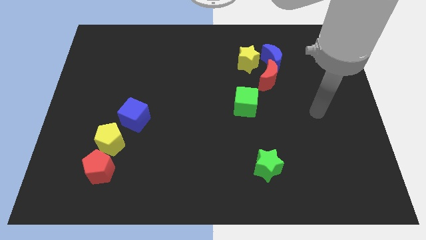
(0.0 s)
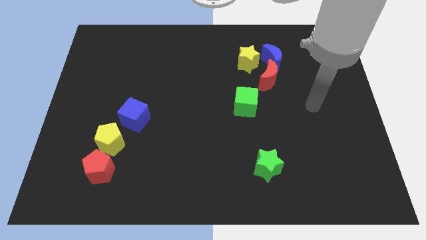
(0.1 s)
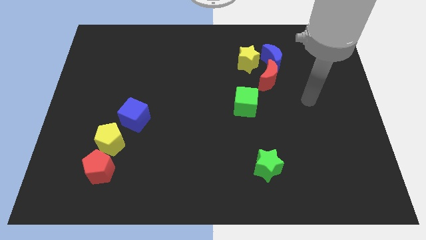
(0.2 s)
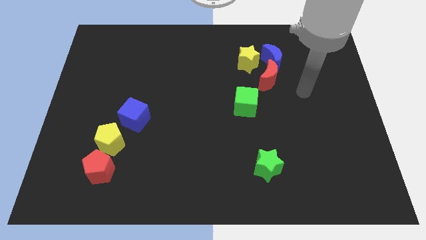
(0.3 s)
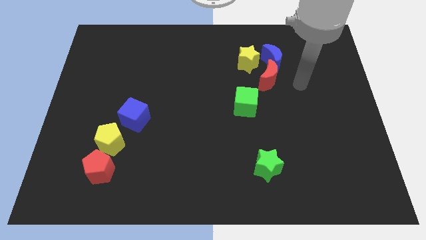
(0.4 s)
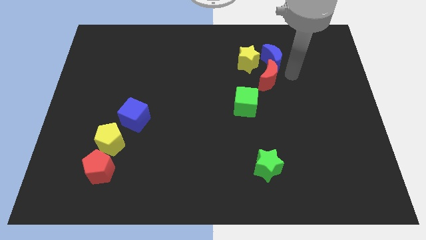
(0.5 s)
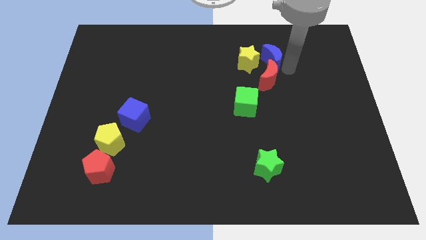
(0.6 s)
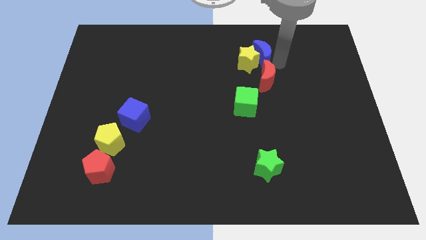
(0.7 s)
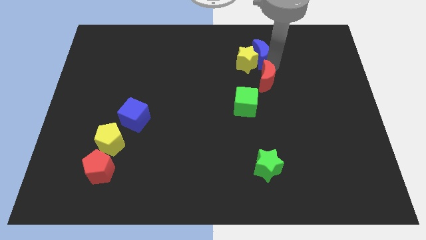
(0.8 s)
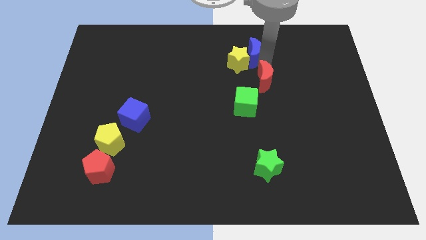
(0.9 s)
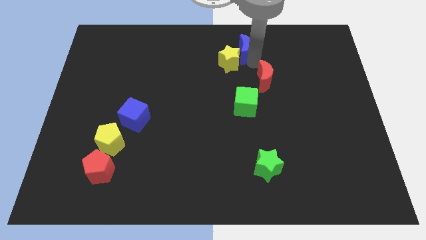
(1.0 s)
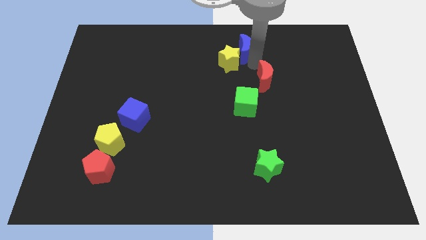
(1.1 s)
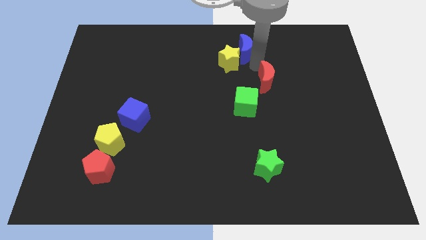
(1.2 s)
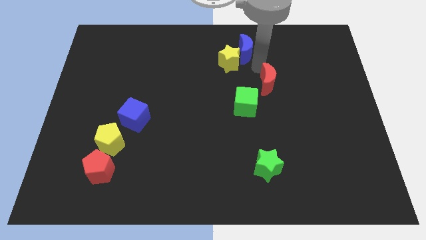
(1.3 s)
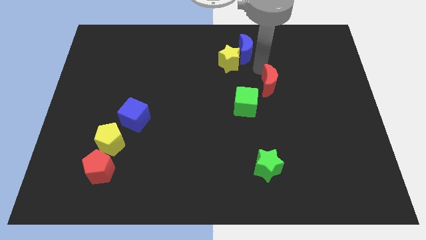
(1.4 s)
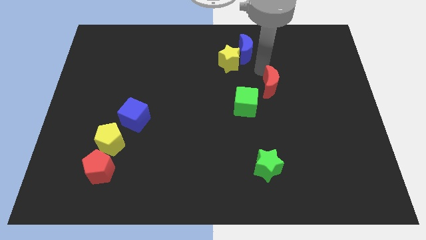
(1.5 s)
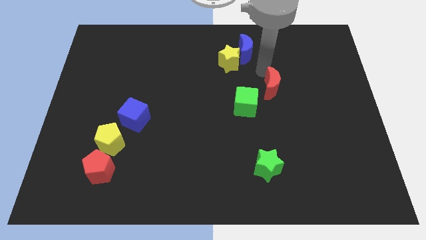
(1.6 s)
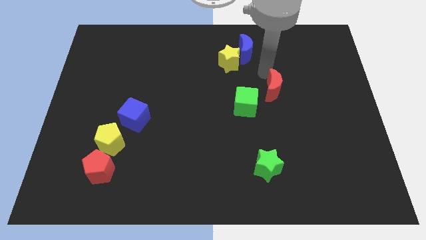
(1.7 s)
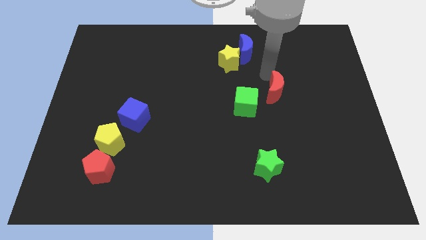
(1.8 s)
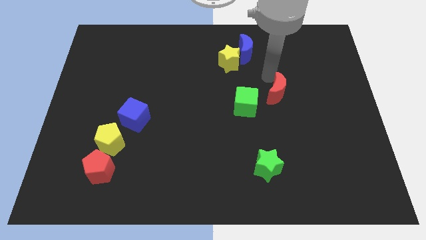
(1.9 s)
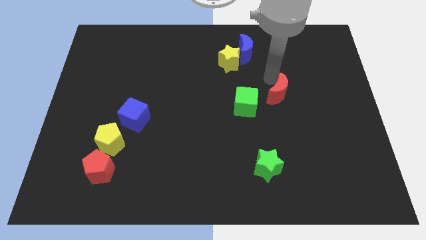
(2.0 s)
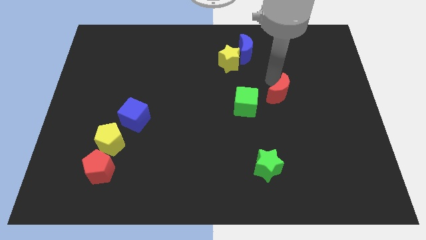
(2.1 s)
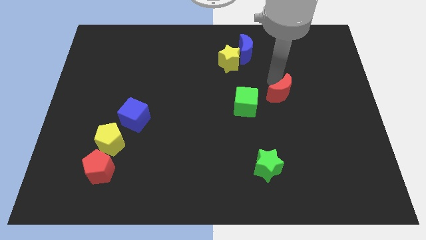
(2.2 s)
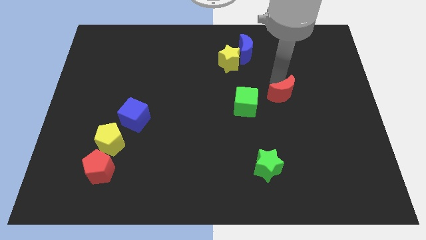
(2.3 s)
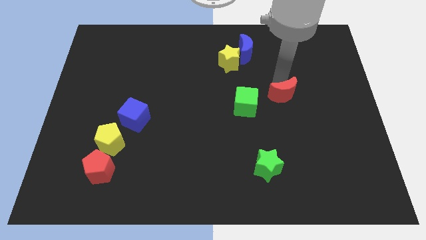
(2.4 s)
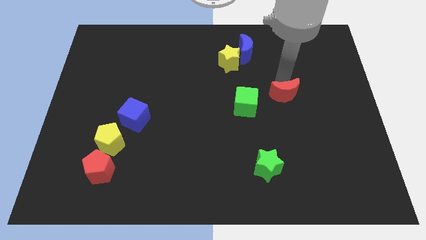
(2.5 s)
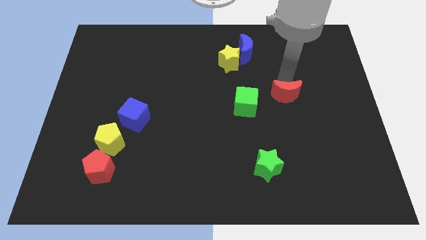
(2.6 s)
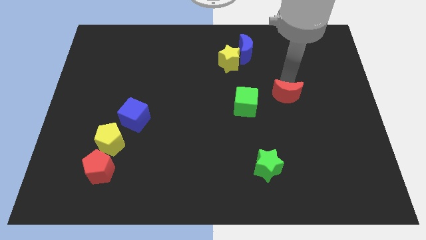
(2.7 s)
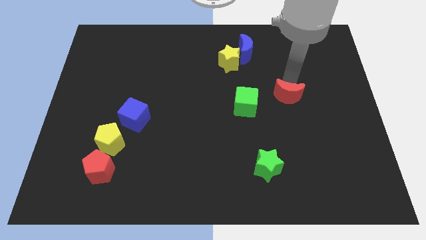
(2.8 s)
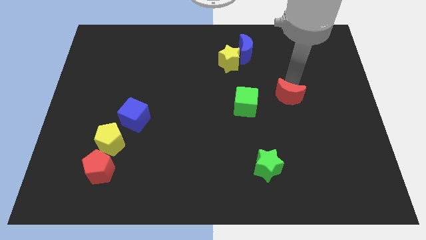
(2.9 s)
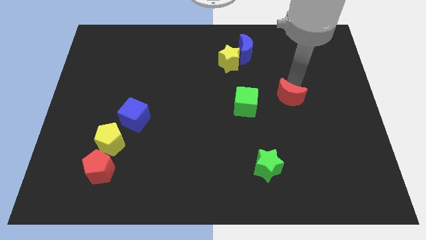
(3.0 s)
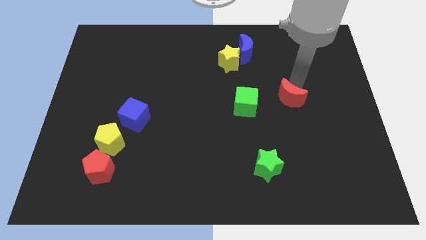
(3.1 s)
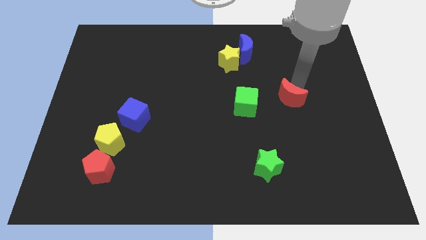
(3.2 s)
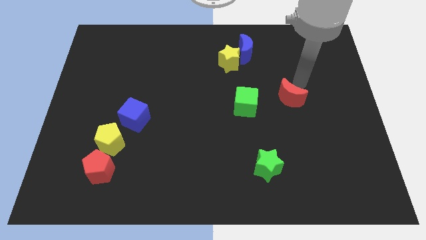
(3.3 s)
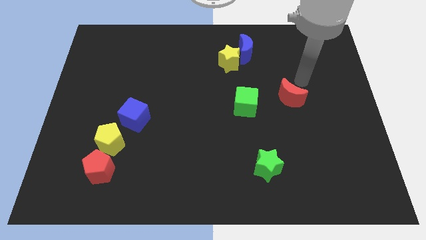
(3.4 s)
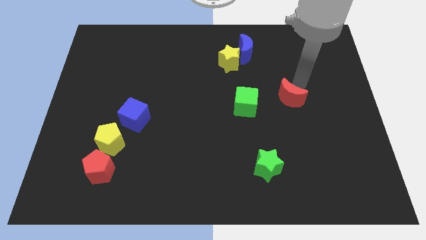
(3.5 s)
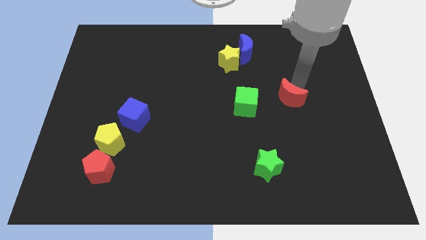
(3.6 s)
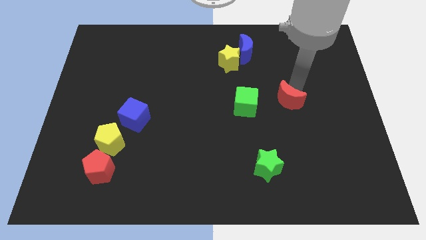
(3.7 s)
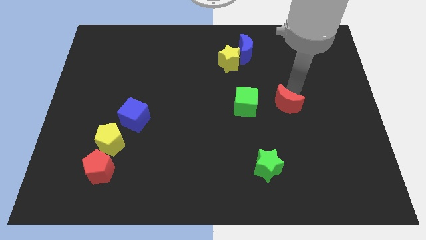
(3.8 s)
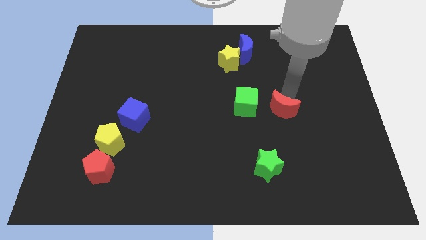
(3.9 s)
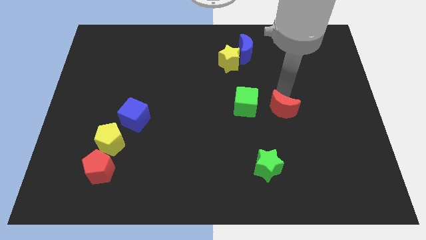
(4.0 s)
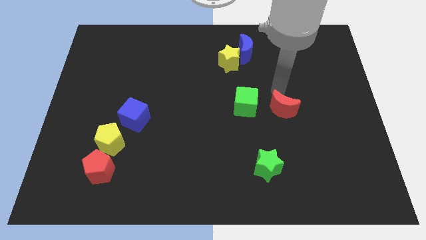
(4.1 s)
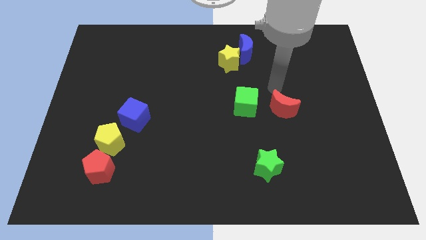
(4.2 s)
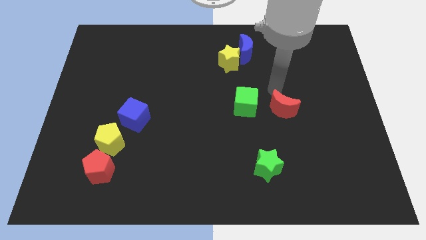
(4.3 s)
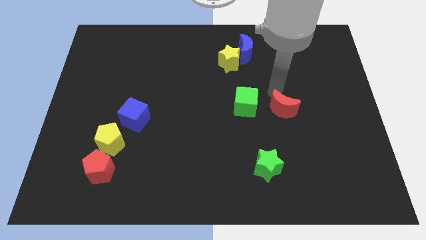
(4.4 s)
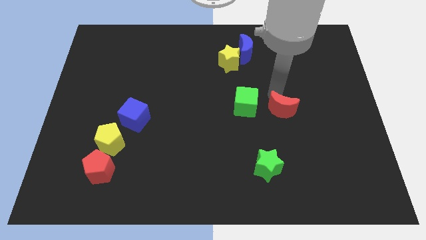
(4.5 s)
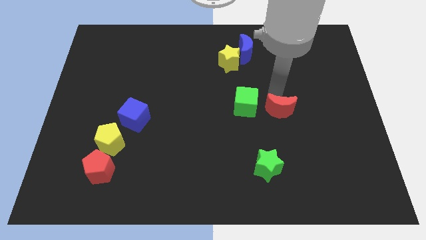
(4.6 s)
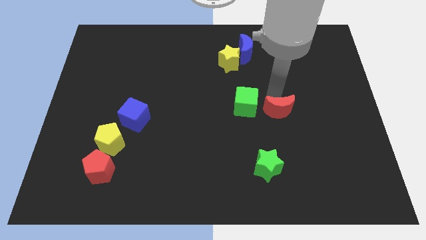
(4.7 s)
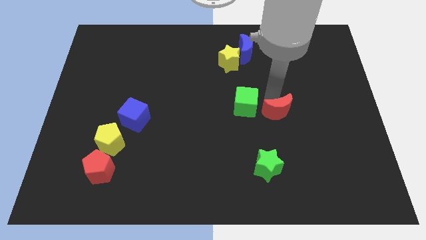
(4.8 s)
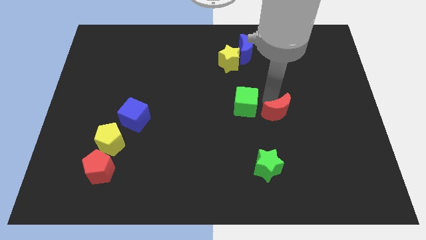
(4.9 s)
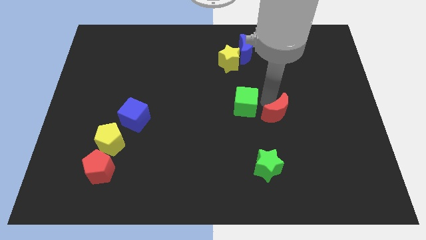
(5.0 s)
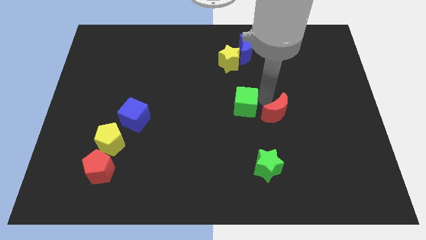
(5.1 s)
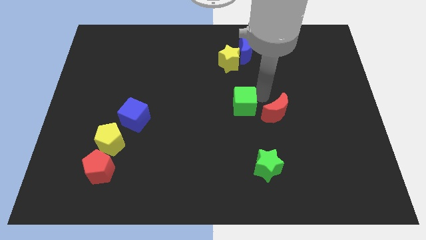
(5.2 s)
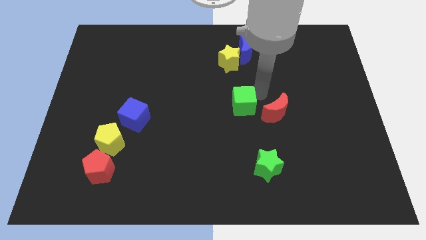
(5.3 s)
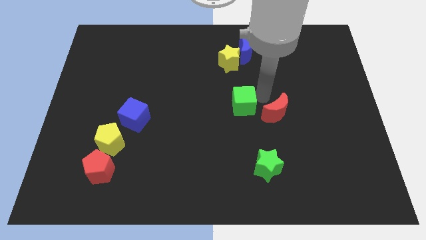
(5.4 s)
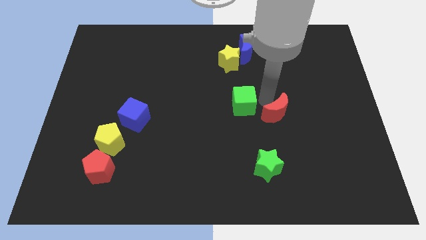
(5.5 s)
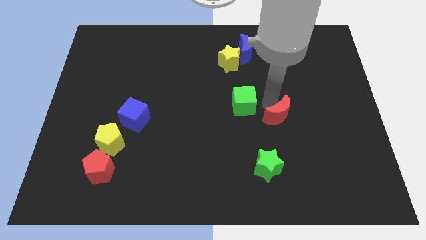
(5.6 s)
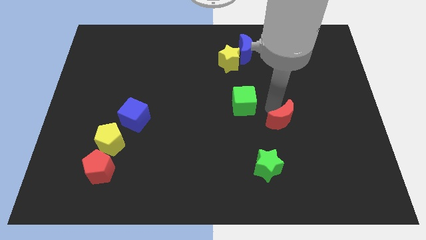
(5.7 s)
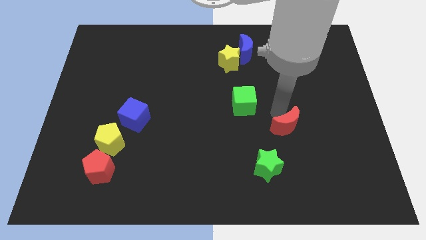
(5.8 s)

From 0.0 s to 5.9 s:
move the red moon diagonally up and to the right of the green star

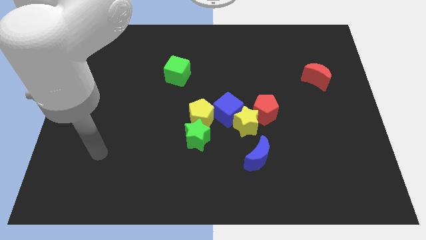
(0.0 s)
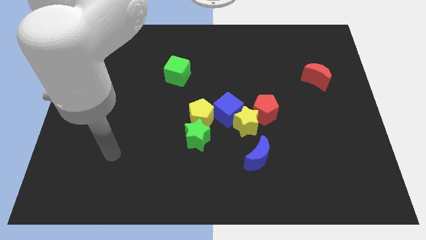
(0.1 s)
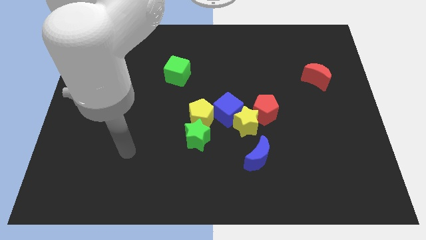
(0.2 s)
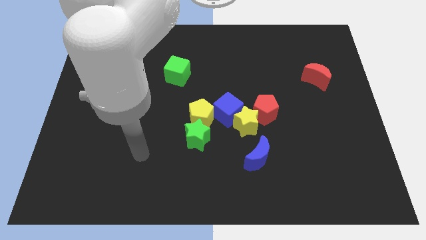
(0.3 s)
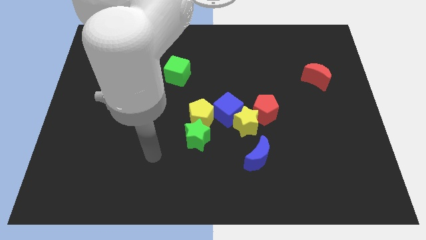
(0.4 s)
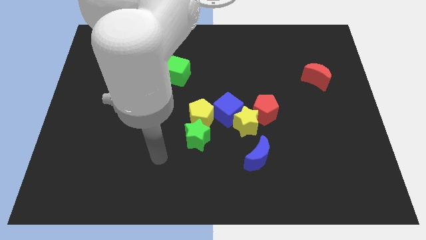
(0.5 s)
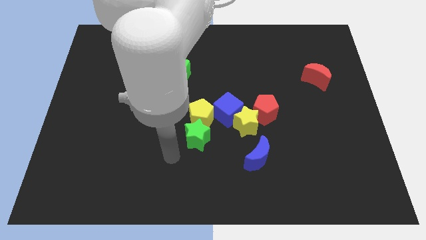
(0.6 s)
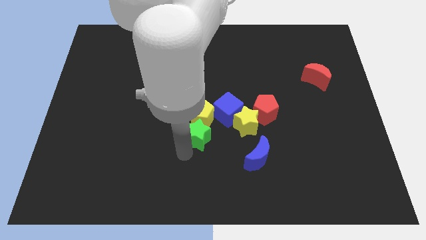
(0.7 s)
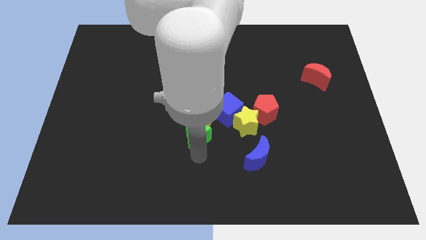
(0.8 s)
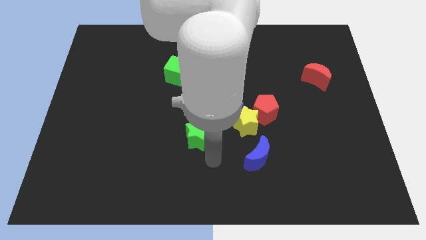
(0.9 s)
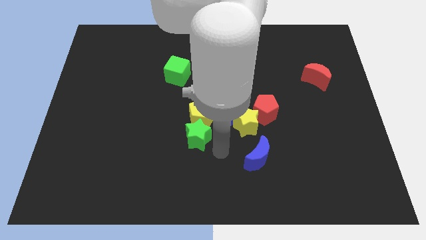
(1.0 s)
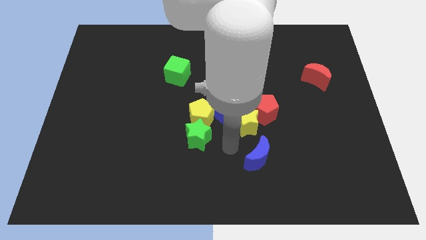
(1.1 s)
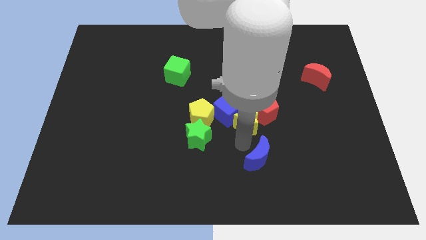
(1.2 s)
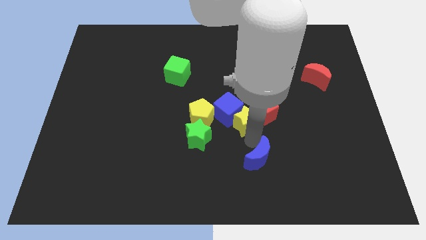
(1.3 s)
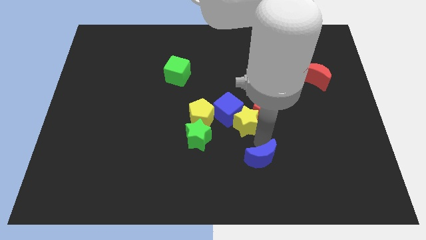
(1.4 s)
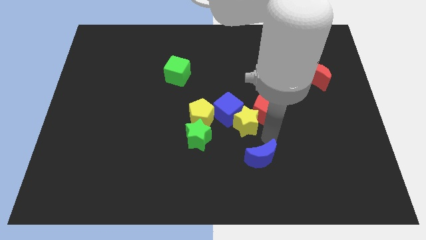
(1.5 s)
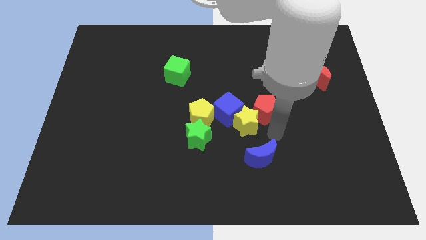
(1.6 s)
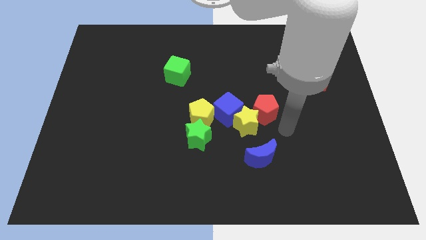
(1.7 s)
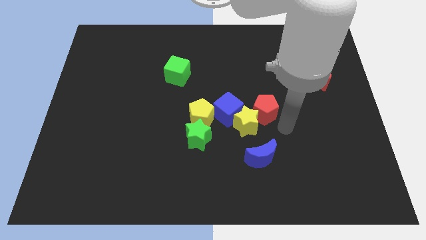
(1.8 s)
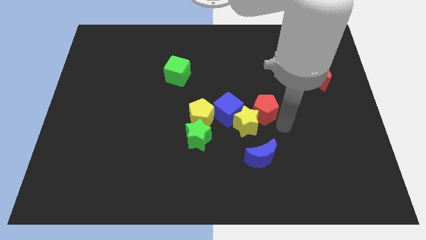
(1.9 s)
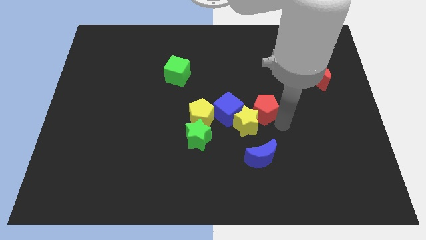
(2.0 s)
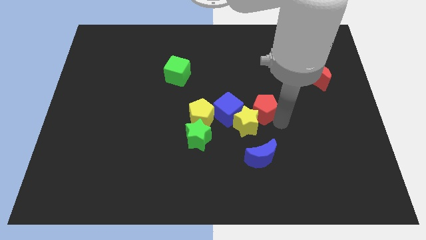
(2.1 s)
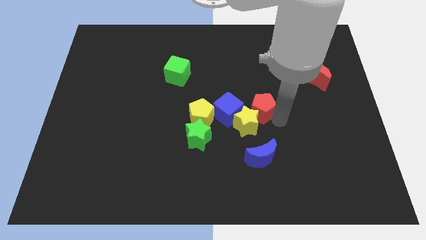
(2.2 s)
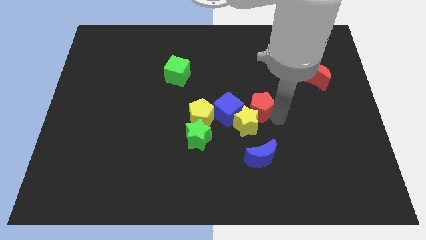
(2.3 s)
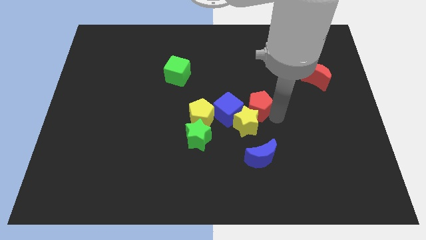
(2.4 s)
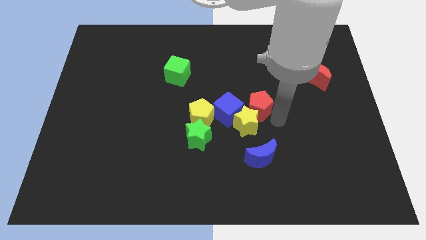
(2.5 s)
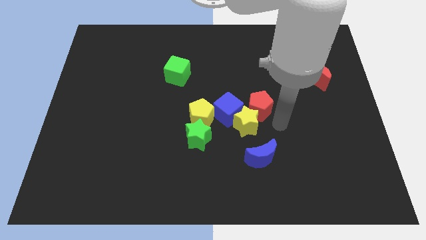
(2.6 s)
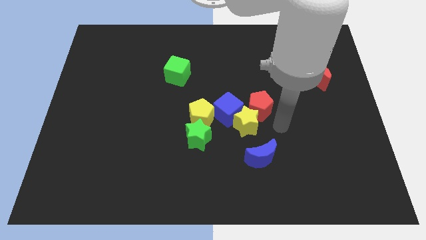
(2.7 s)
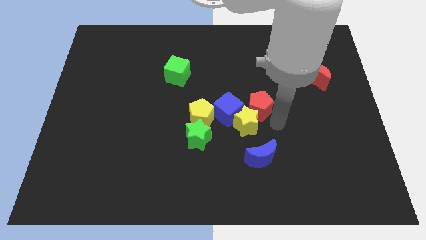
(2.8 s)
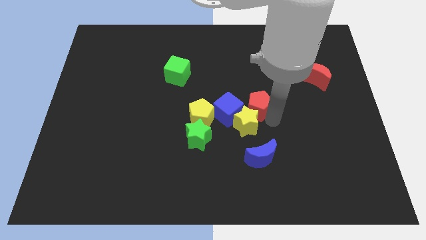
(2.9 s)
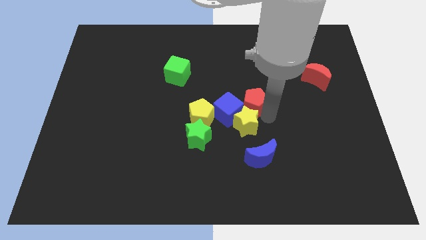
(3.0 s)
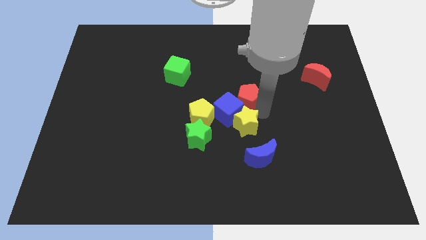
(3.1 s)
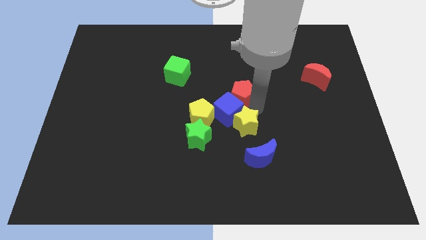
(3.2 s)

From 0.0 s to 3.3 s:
move the red pentagon to the top side of the blue cube
